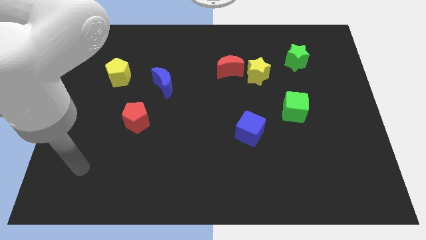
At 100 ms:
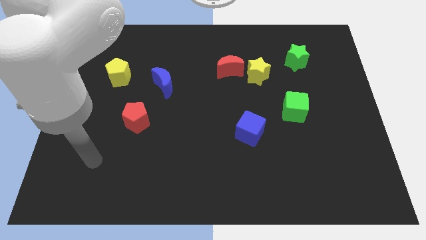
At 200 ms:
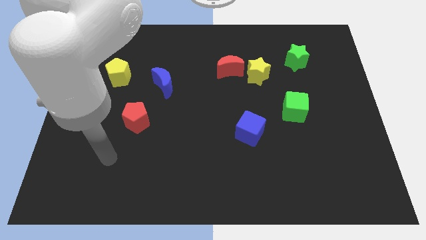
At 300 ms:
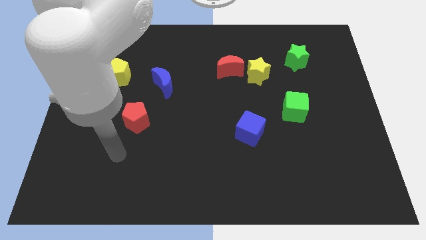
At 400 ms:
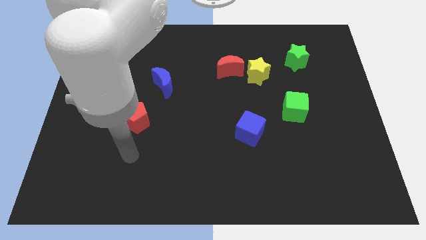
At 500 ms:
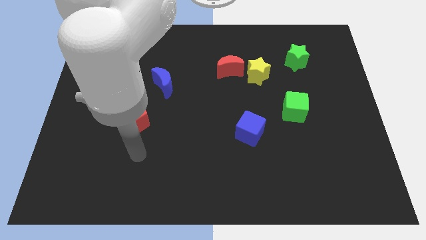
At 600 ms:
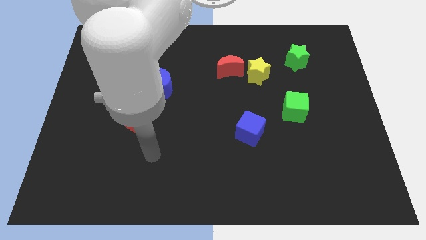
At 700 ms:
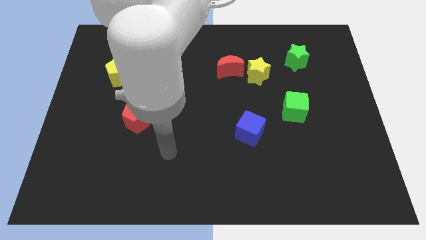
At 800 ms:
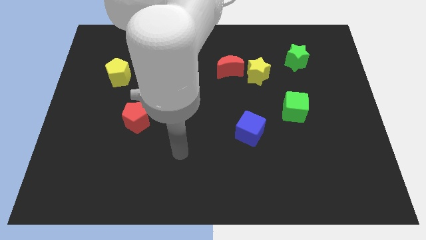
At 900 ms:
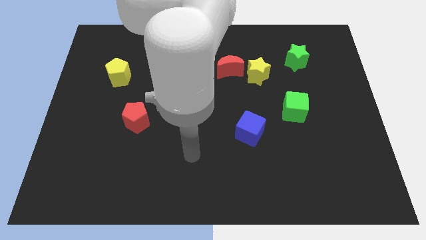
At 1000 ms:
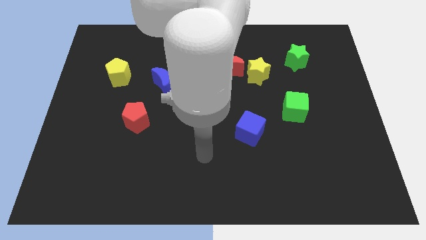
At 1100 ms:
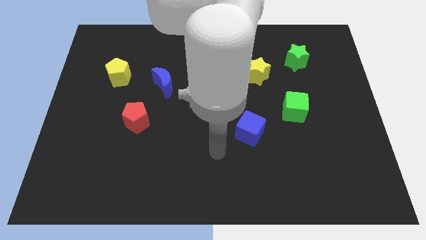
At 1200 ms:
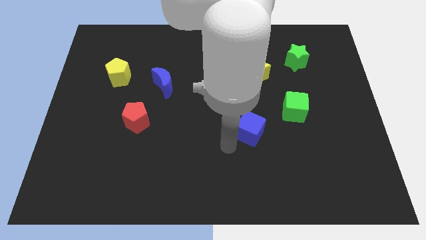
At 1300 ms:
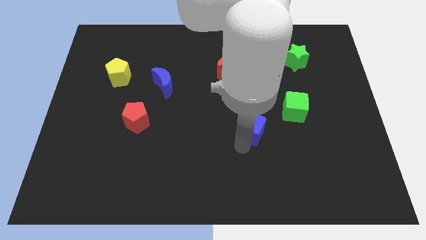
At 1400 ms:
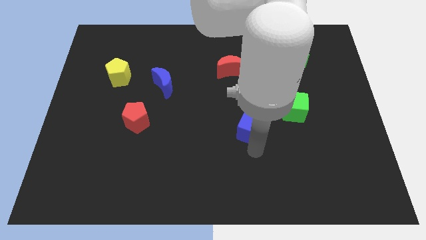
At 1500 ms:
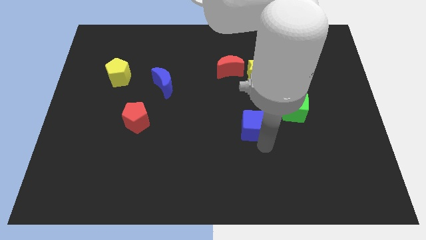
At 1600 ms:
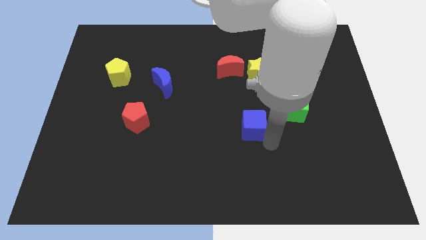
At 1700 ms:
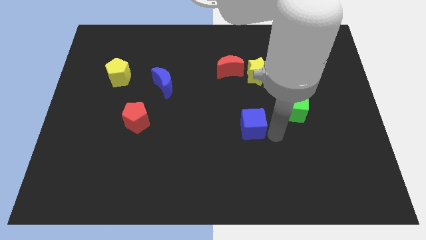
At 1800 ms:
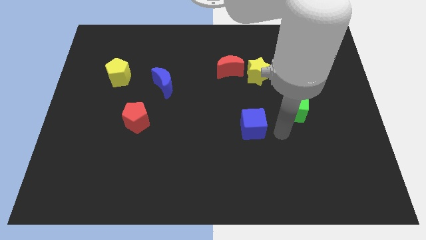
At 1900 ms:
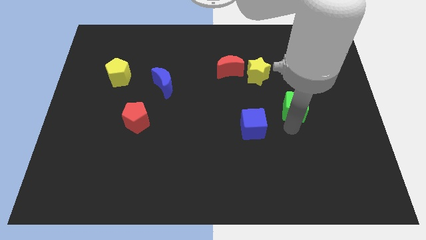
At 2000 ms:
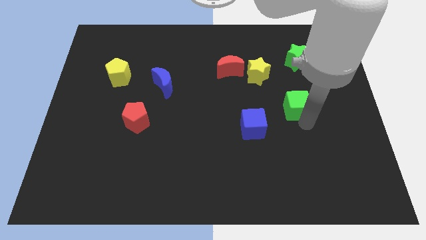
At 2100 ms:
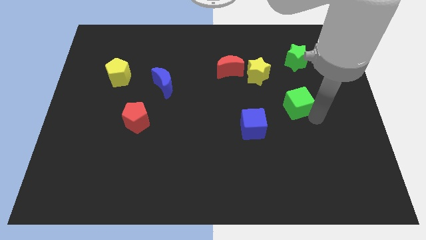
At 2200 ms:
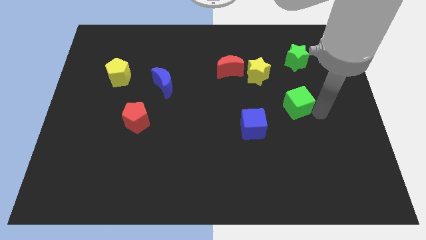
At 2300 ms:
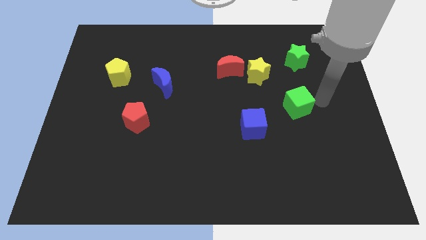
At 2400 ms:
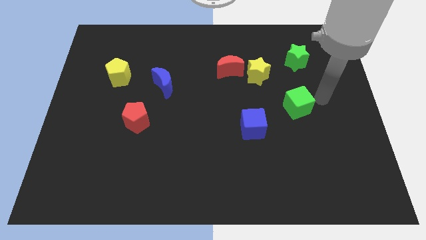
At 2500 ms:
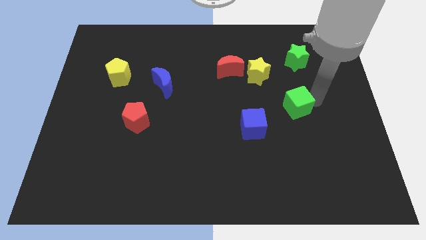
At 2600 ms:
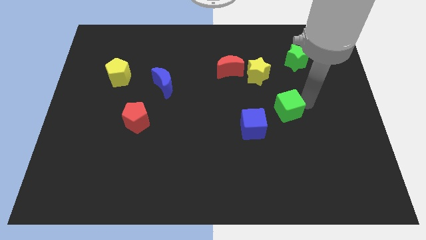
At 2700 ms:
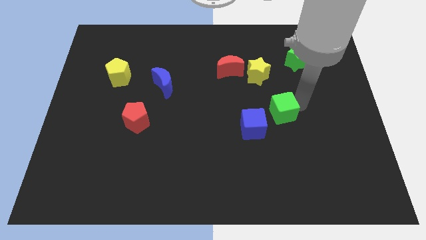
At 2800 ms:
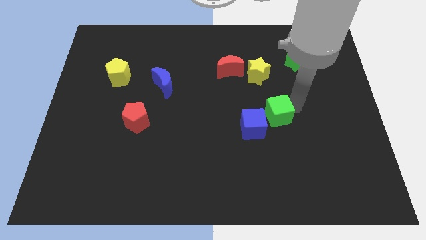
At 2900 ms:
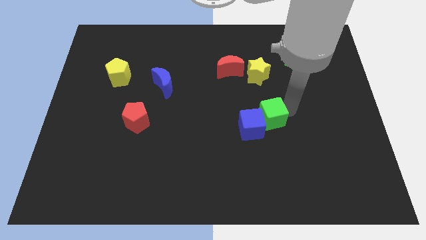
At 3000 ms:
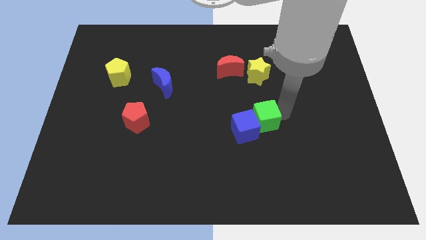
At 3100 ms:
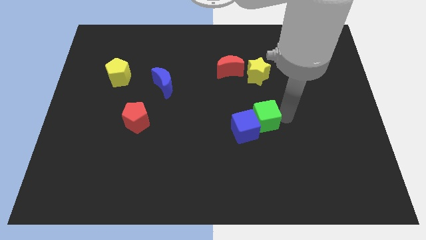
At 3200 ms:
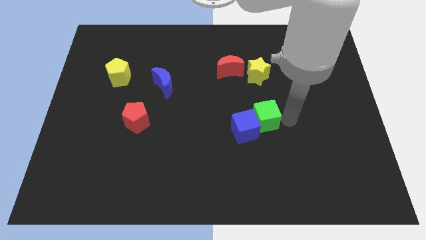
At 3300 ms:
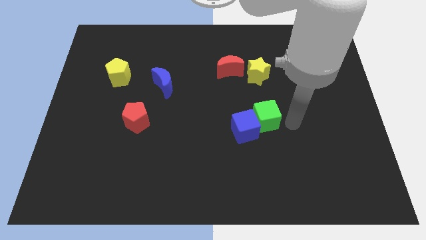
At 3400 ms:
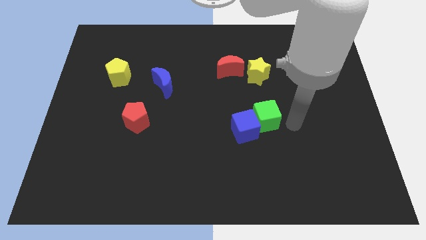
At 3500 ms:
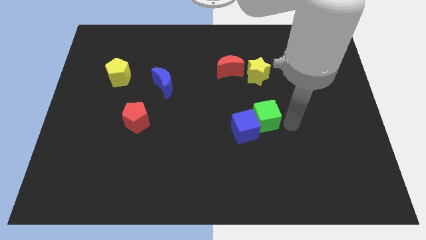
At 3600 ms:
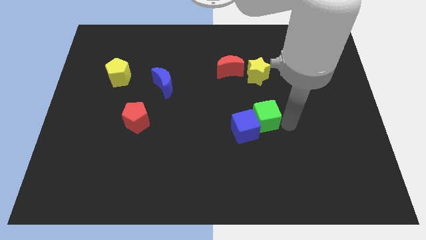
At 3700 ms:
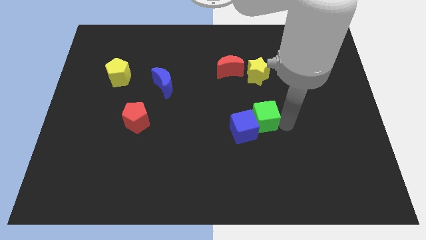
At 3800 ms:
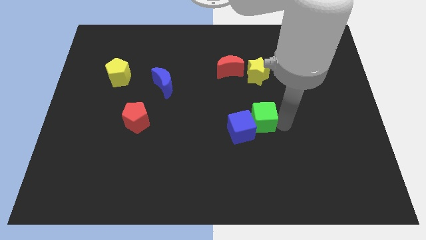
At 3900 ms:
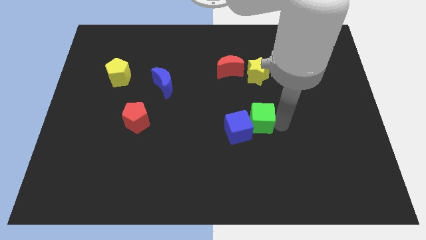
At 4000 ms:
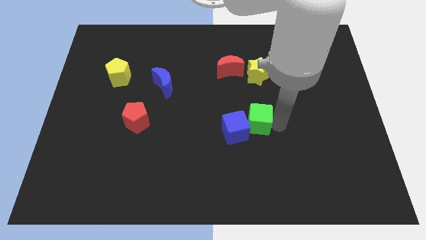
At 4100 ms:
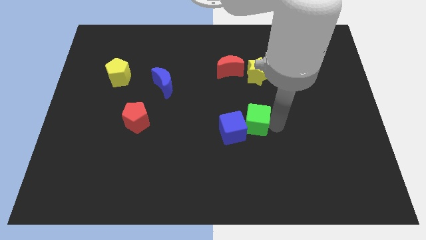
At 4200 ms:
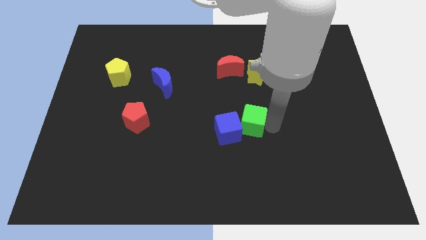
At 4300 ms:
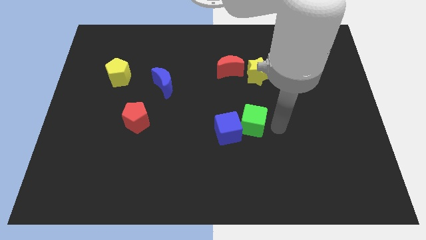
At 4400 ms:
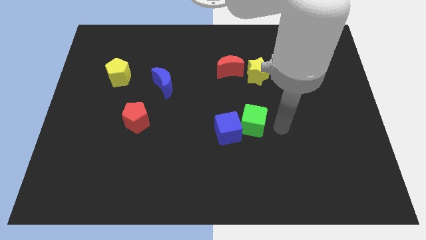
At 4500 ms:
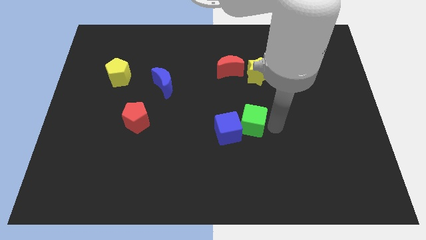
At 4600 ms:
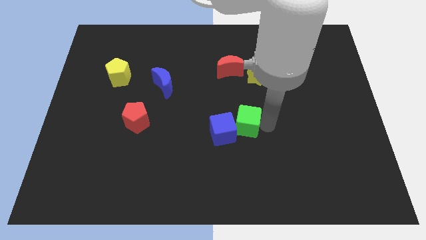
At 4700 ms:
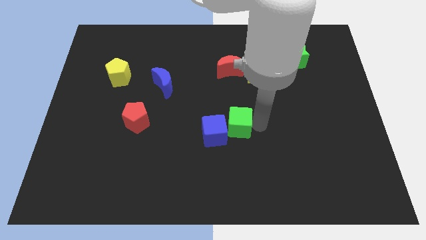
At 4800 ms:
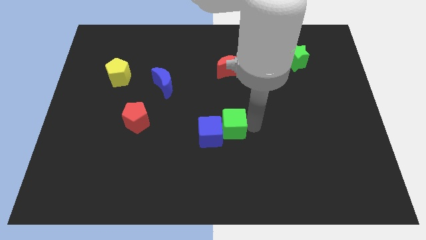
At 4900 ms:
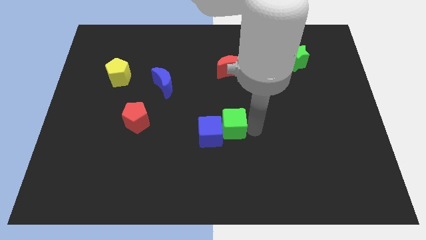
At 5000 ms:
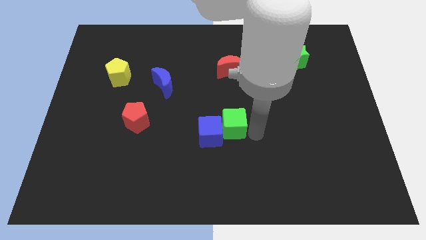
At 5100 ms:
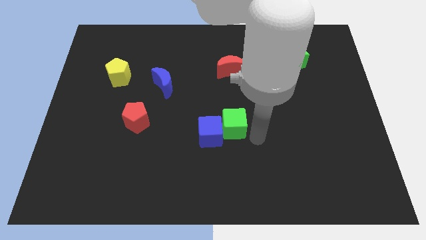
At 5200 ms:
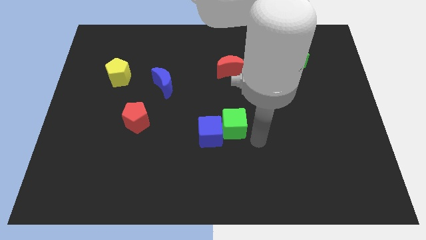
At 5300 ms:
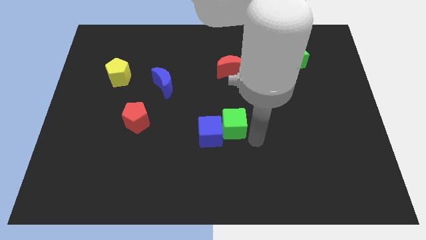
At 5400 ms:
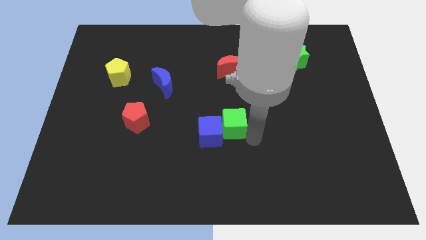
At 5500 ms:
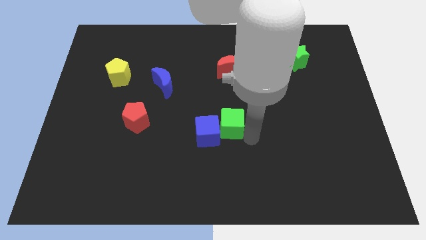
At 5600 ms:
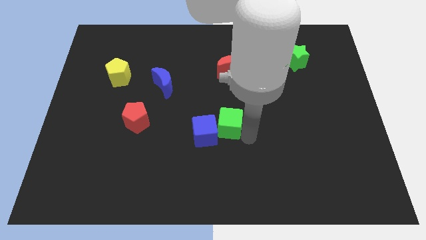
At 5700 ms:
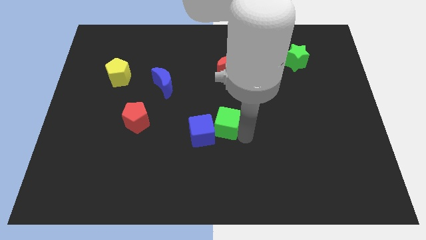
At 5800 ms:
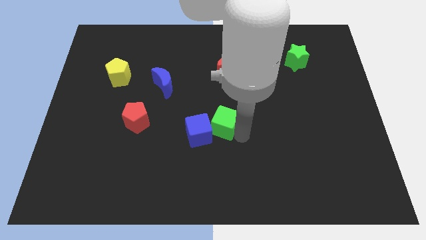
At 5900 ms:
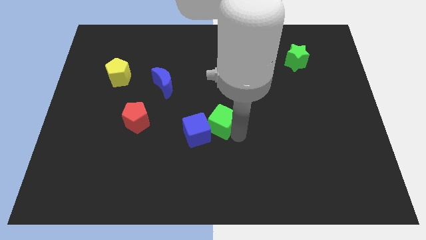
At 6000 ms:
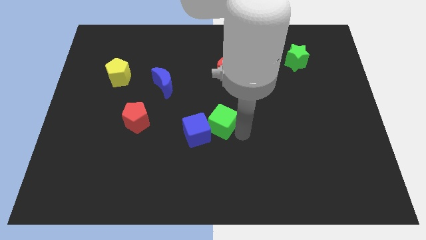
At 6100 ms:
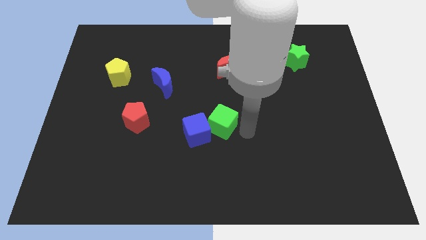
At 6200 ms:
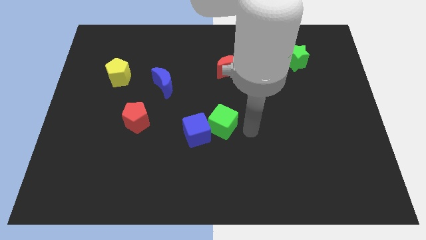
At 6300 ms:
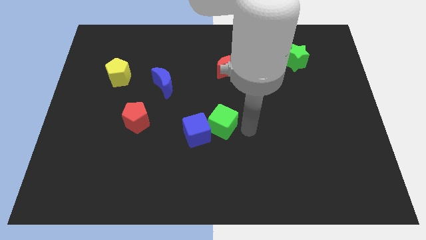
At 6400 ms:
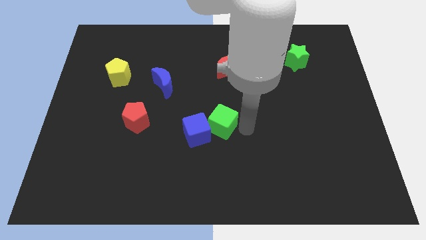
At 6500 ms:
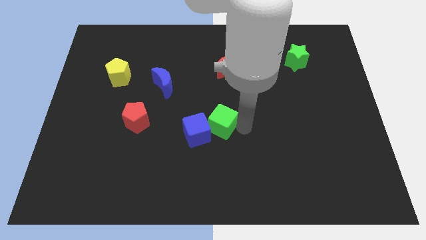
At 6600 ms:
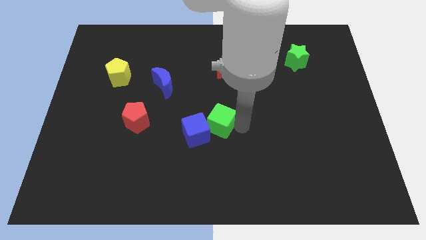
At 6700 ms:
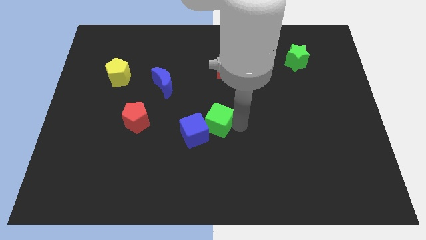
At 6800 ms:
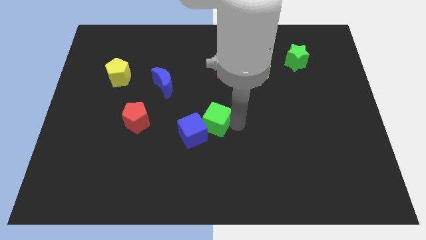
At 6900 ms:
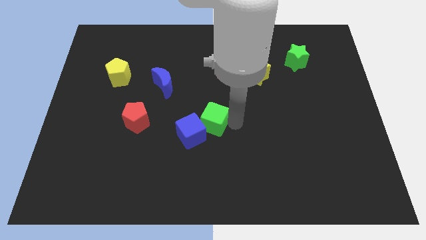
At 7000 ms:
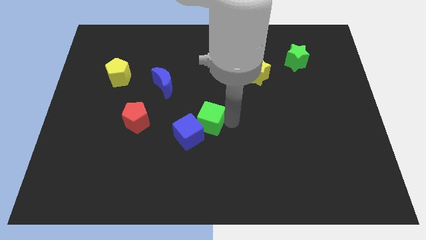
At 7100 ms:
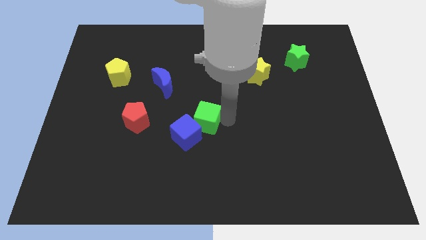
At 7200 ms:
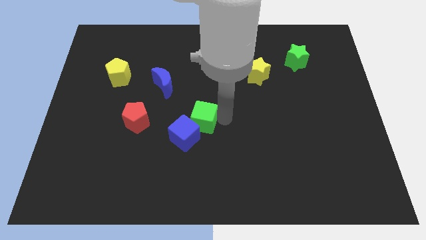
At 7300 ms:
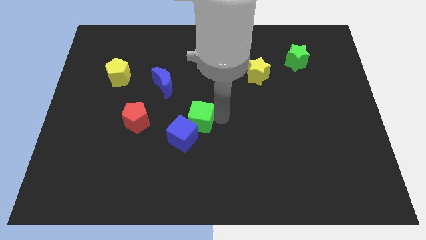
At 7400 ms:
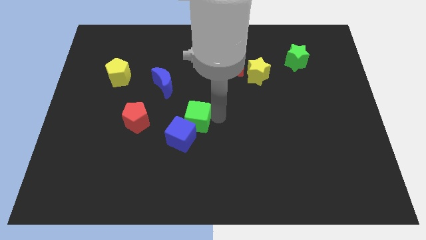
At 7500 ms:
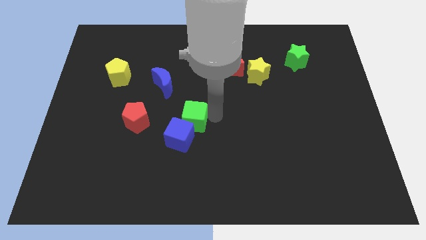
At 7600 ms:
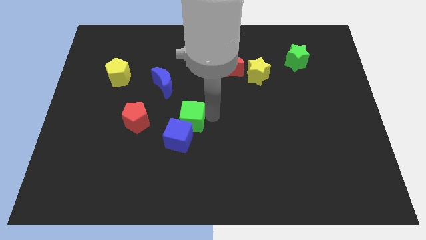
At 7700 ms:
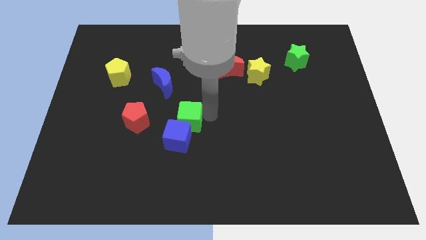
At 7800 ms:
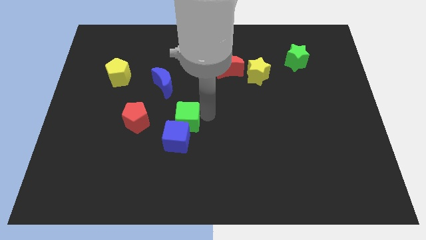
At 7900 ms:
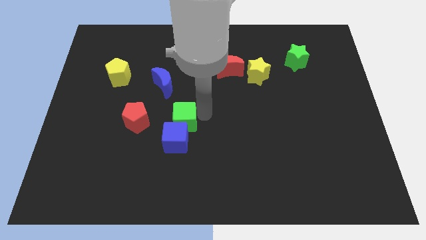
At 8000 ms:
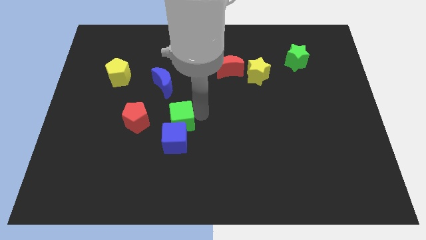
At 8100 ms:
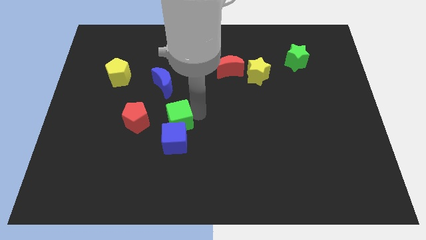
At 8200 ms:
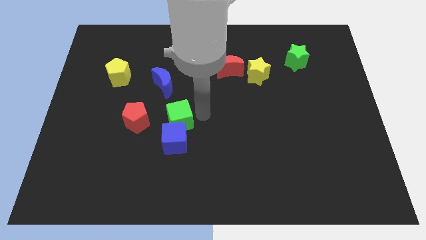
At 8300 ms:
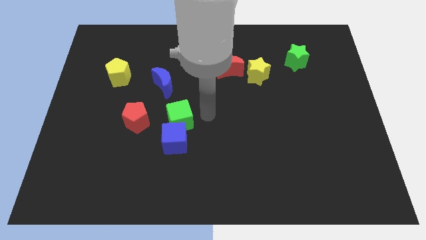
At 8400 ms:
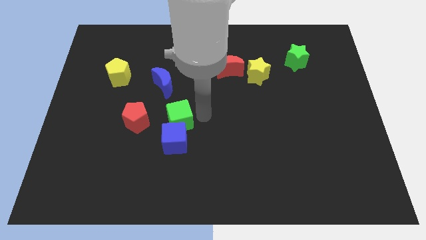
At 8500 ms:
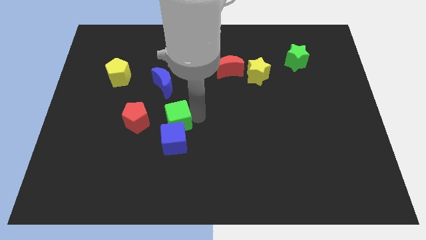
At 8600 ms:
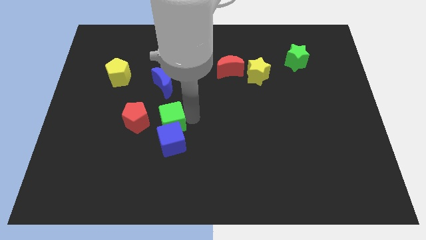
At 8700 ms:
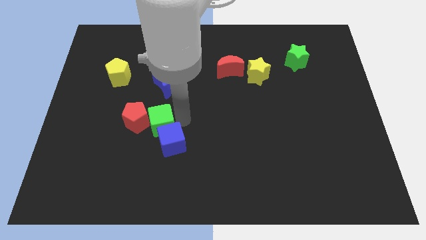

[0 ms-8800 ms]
put the green cube next to the red pentagon
